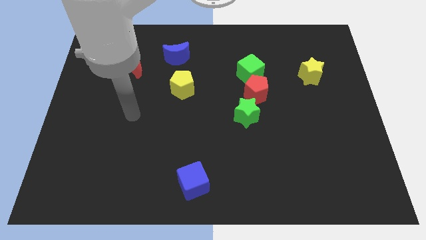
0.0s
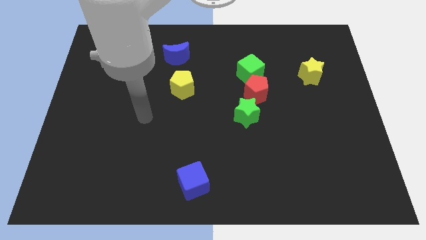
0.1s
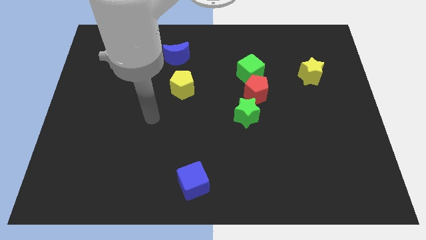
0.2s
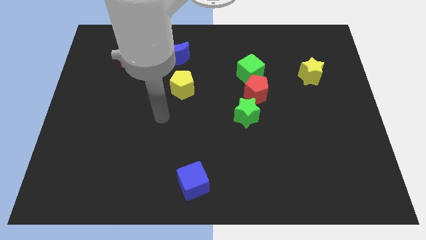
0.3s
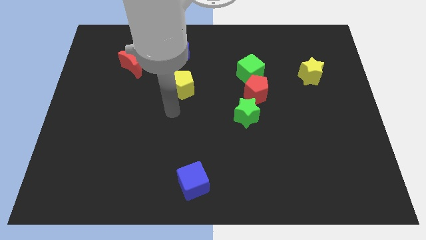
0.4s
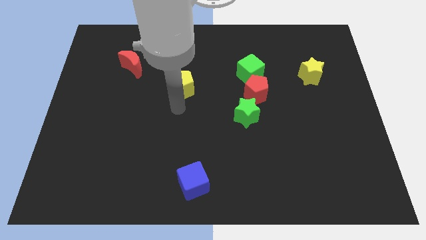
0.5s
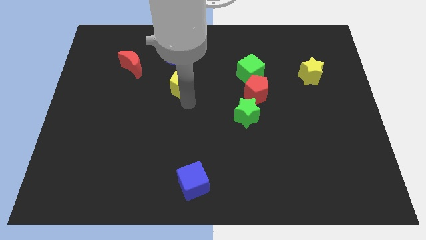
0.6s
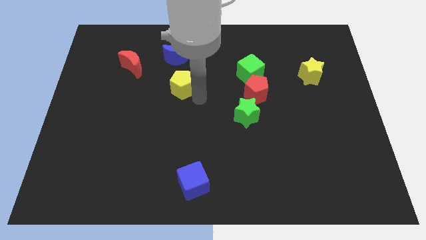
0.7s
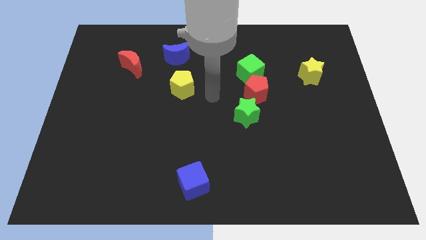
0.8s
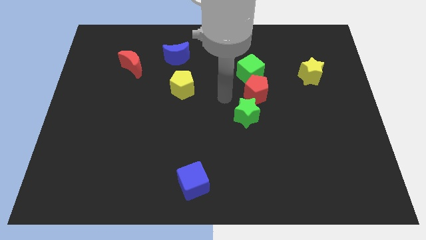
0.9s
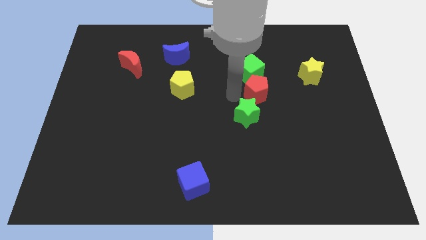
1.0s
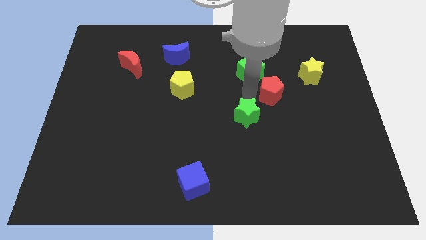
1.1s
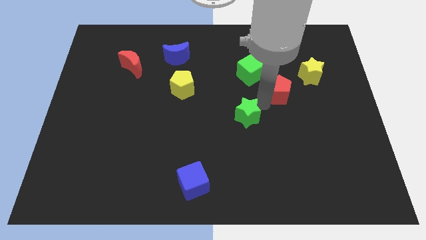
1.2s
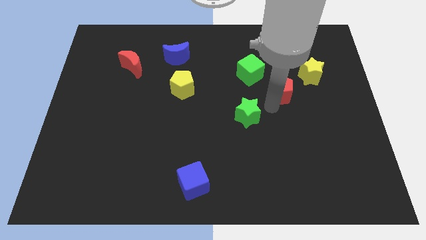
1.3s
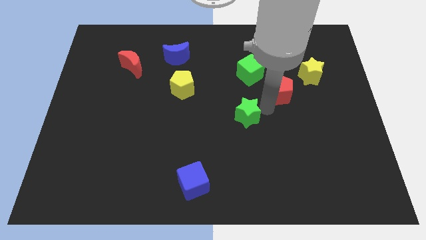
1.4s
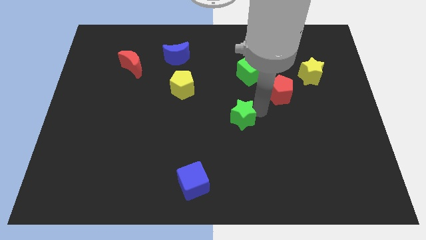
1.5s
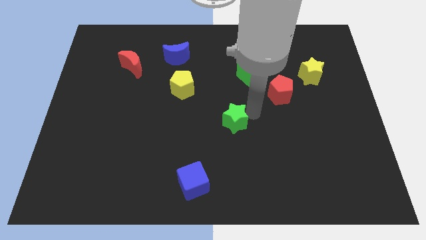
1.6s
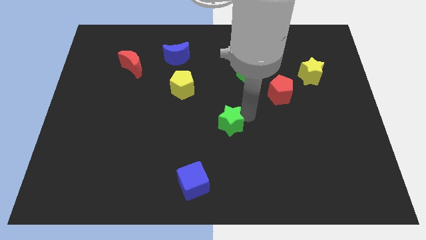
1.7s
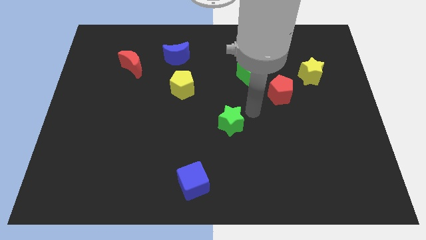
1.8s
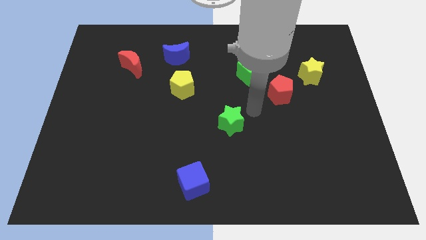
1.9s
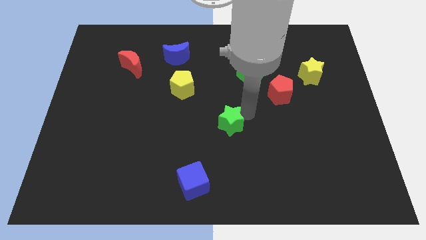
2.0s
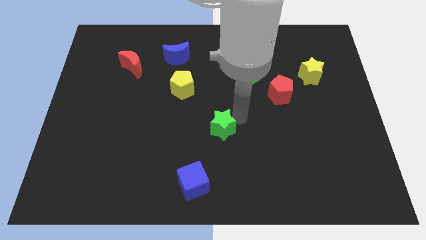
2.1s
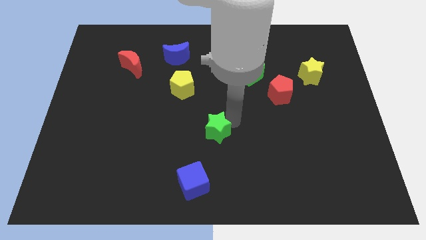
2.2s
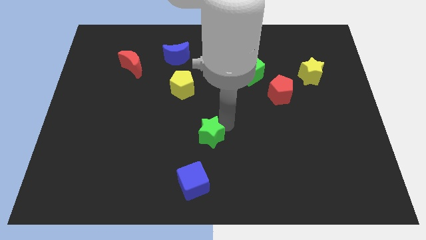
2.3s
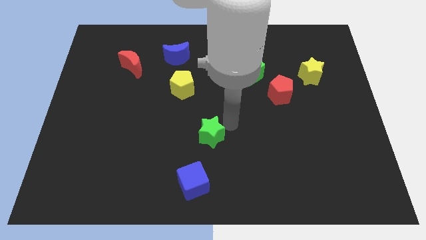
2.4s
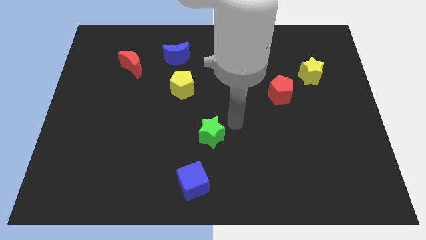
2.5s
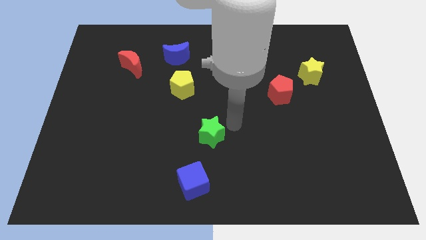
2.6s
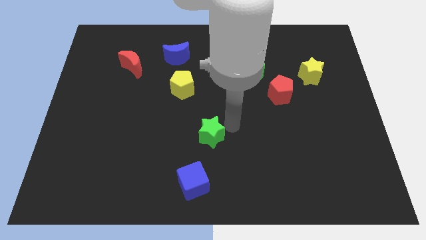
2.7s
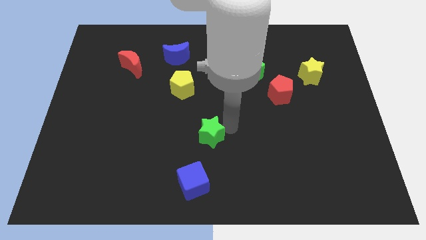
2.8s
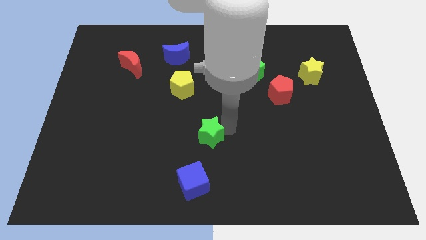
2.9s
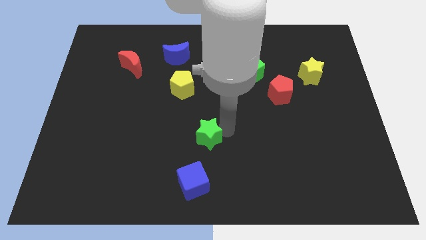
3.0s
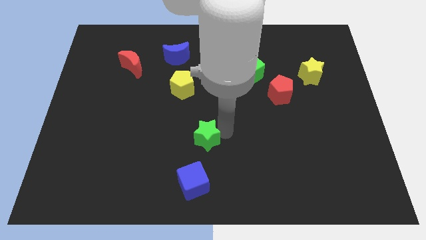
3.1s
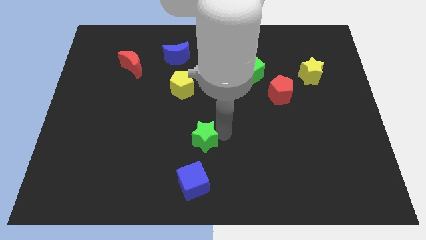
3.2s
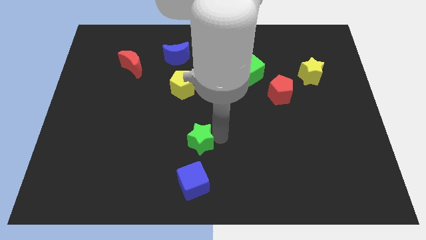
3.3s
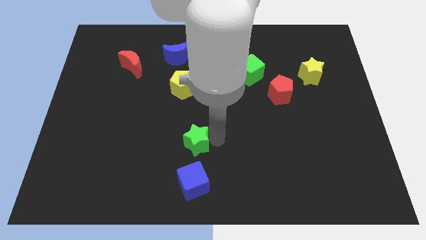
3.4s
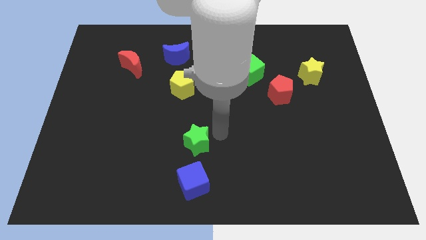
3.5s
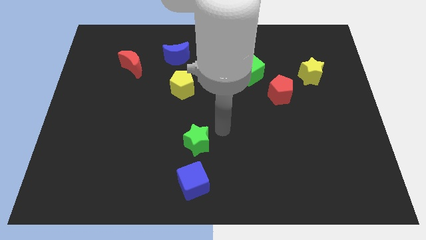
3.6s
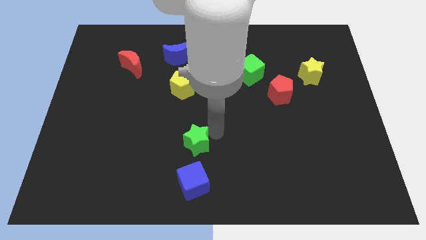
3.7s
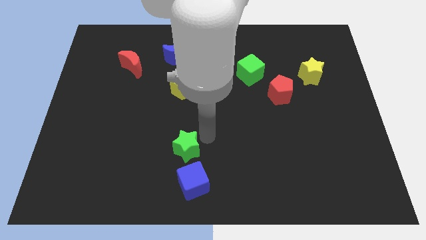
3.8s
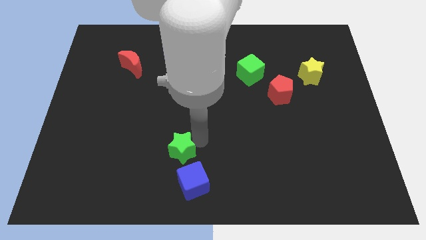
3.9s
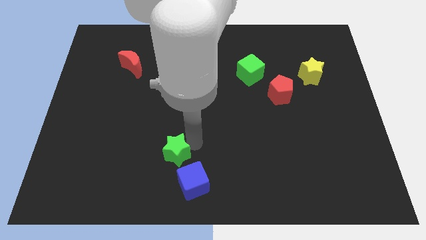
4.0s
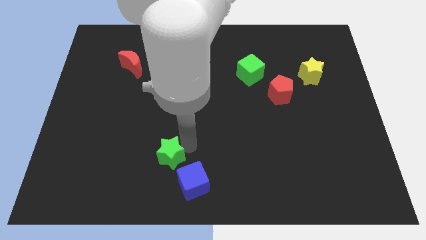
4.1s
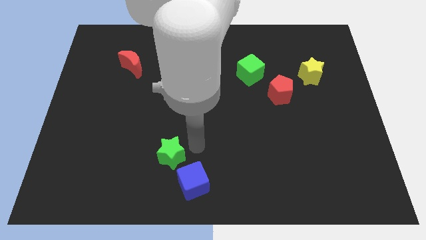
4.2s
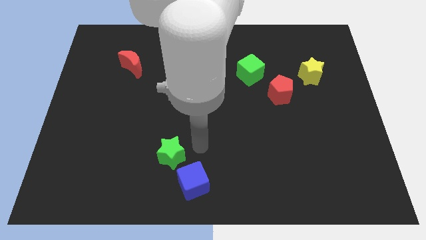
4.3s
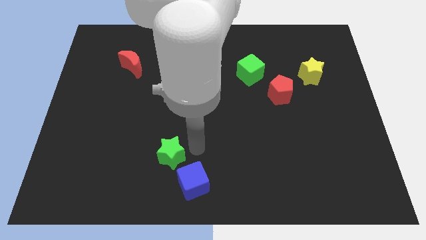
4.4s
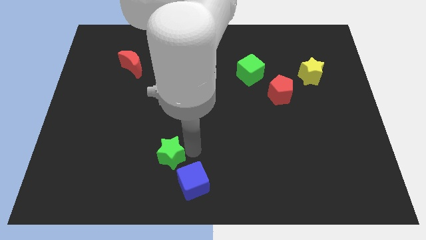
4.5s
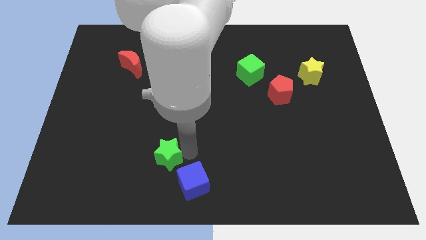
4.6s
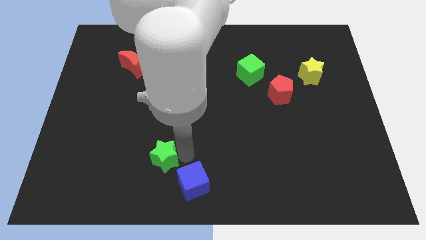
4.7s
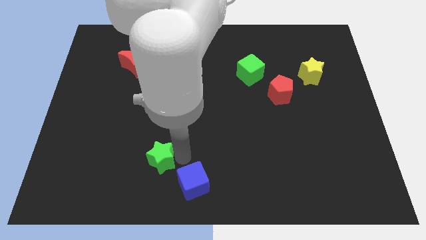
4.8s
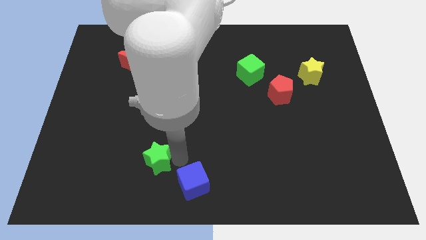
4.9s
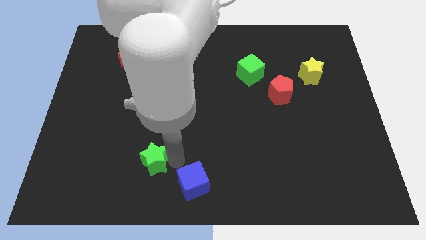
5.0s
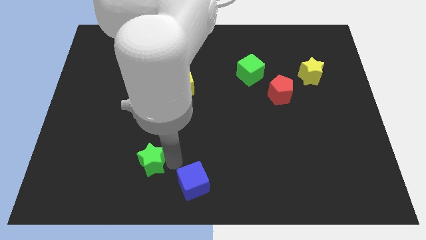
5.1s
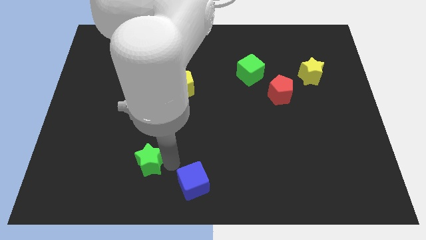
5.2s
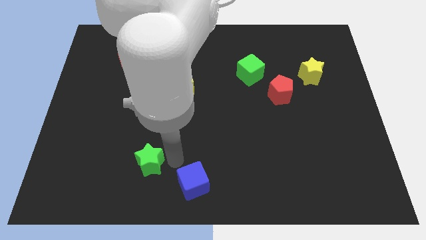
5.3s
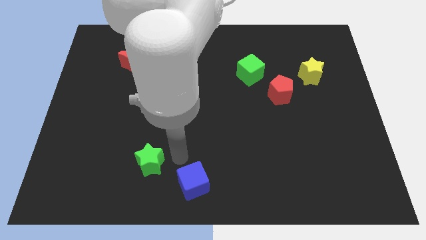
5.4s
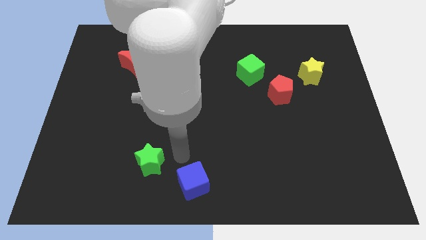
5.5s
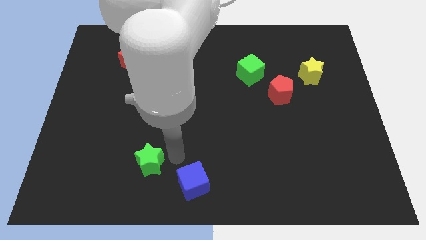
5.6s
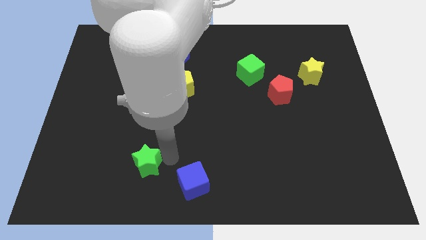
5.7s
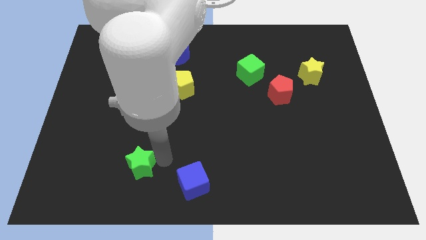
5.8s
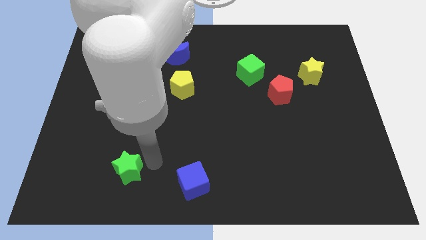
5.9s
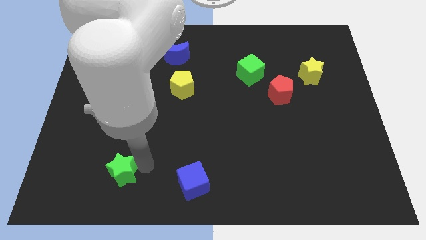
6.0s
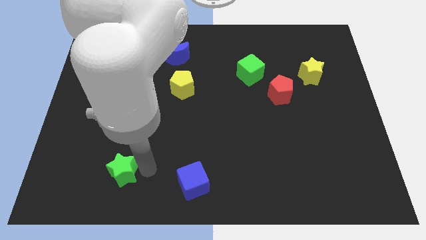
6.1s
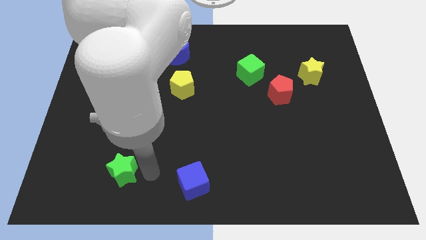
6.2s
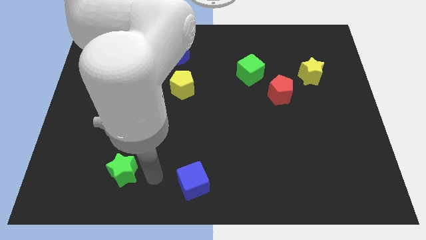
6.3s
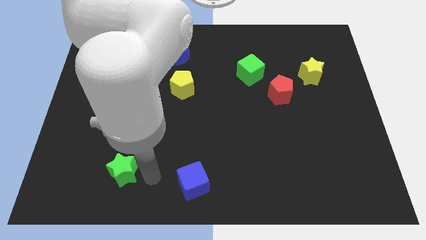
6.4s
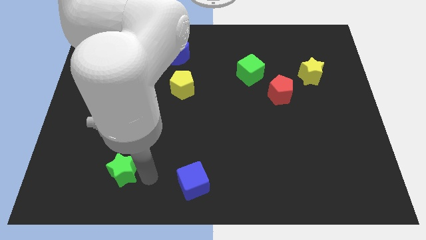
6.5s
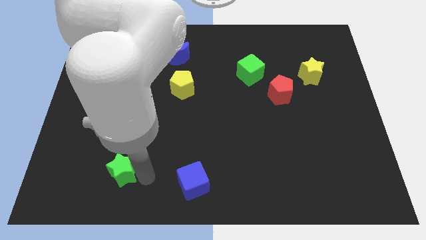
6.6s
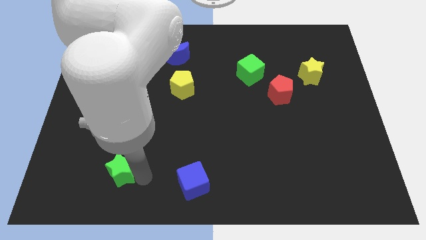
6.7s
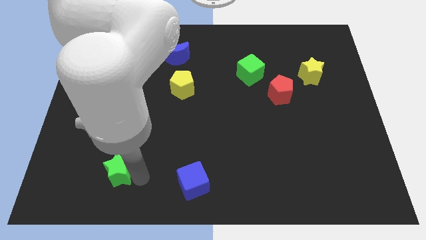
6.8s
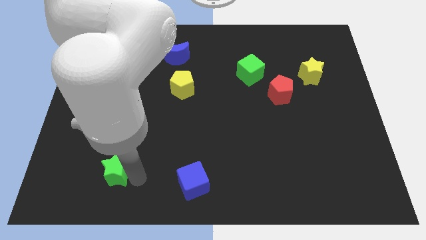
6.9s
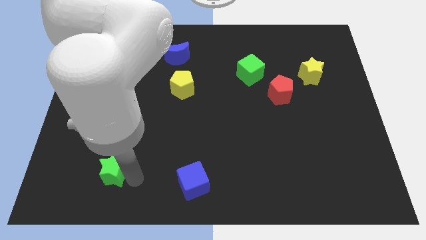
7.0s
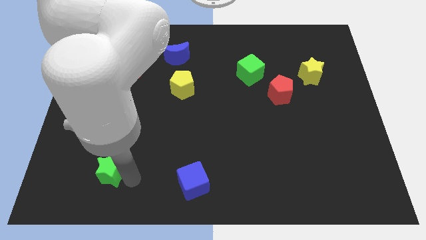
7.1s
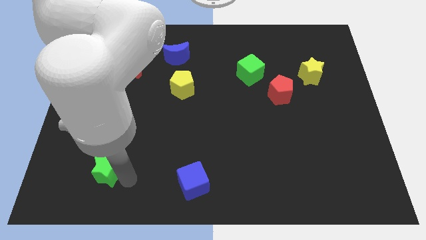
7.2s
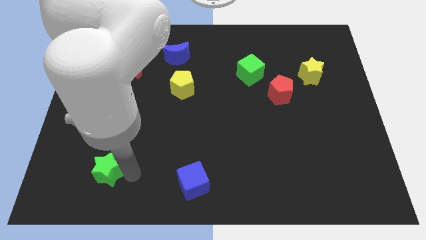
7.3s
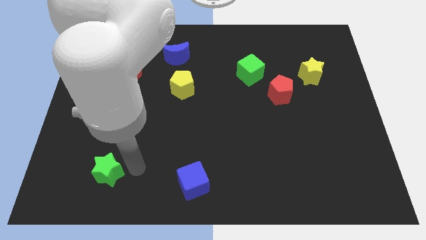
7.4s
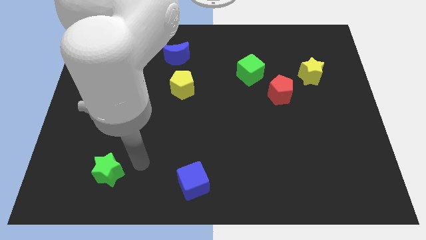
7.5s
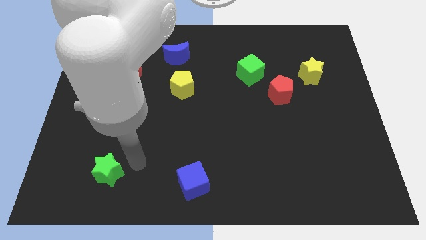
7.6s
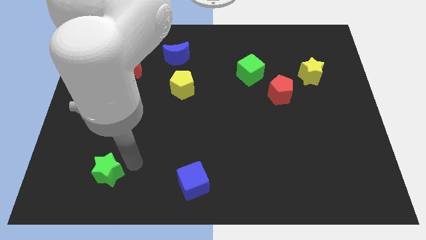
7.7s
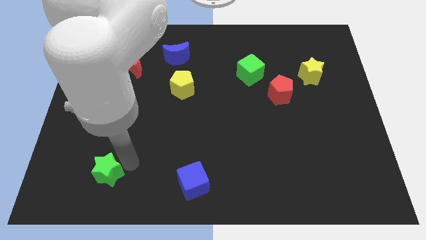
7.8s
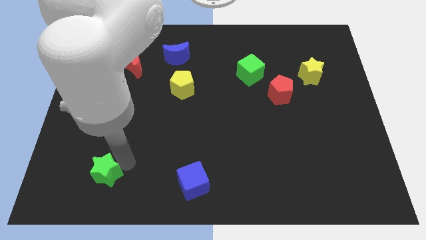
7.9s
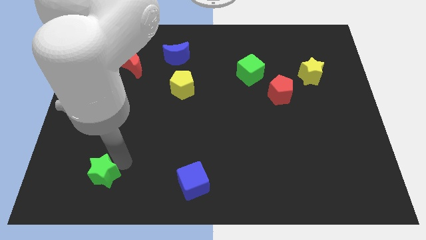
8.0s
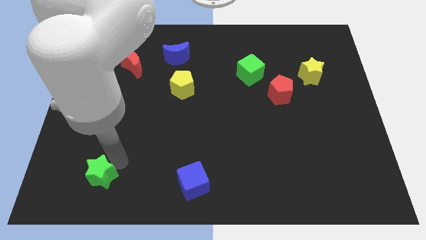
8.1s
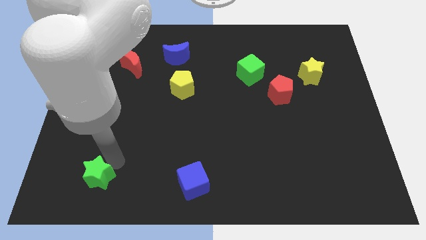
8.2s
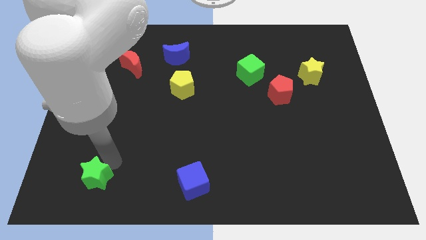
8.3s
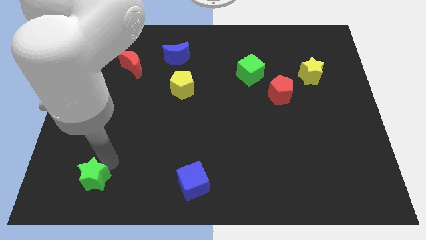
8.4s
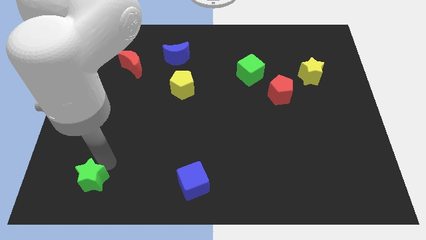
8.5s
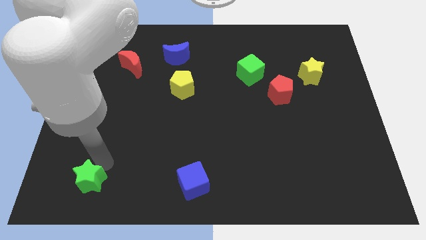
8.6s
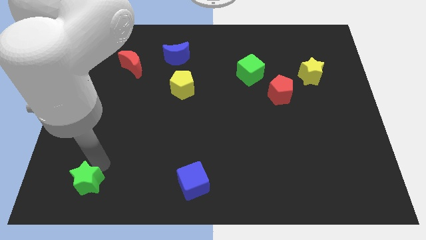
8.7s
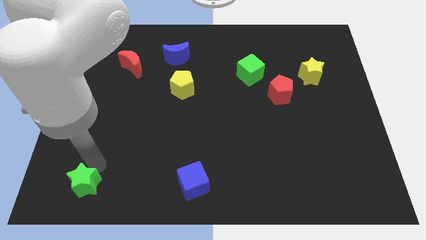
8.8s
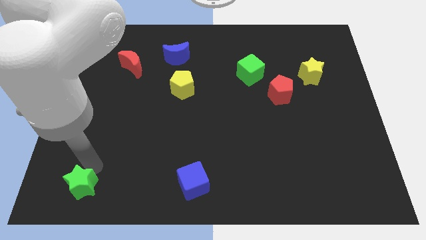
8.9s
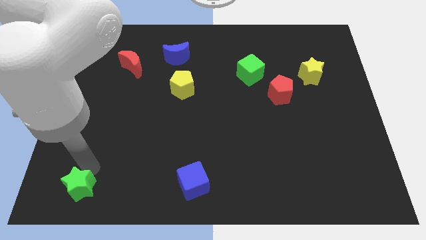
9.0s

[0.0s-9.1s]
slide the green star to the bottom left
